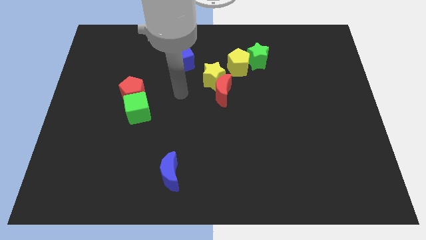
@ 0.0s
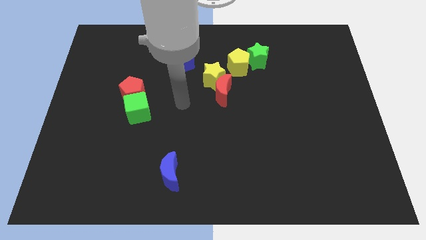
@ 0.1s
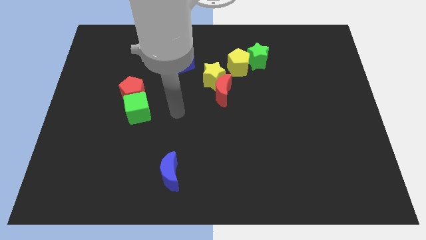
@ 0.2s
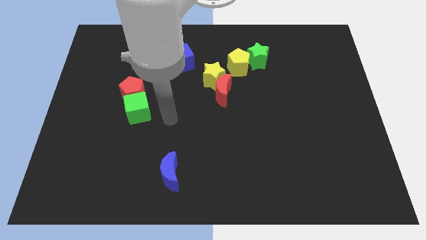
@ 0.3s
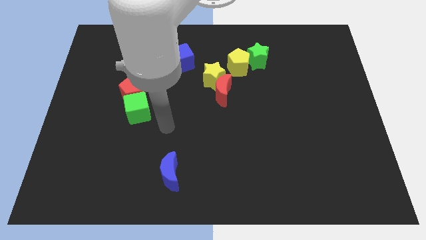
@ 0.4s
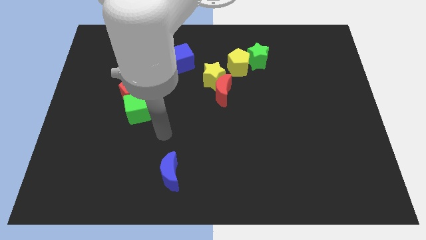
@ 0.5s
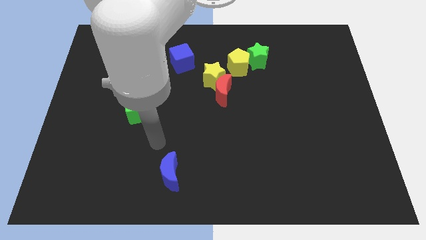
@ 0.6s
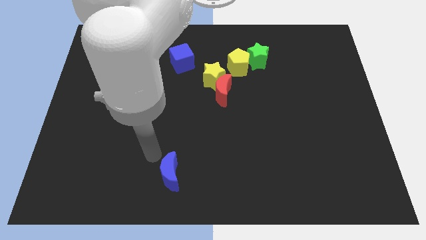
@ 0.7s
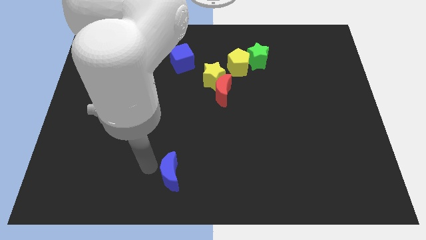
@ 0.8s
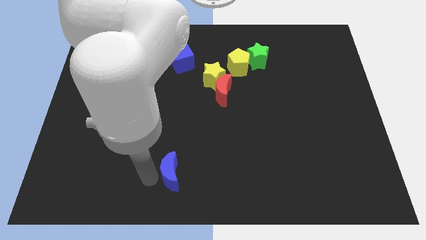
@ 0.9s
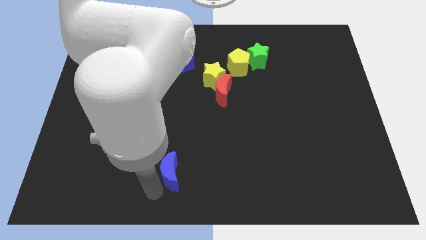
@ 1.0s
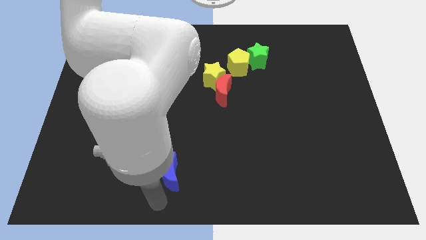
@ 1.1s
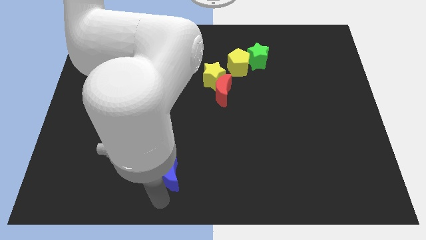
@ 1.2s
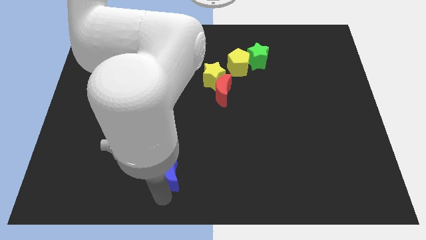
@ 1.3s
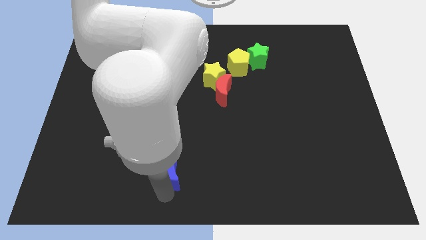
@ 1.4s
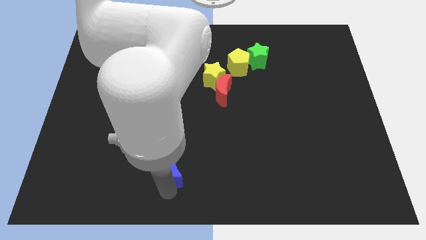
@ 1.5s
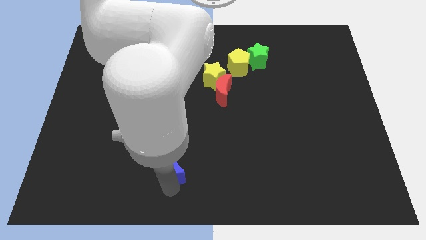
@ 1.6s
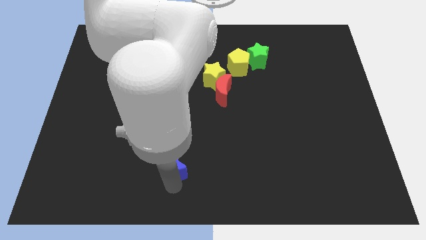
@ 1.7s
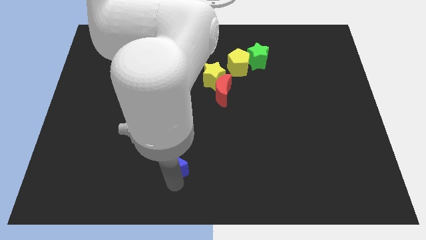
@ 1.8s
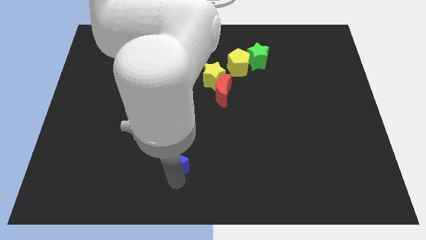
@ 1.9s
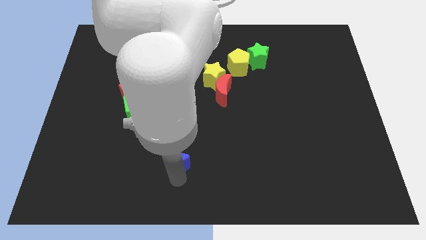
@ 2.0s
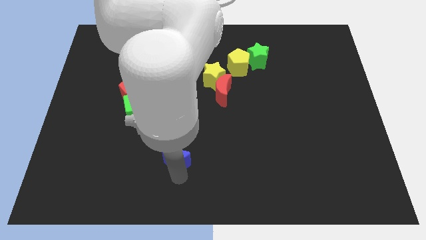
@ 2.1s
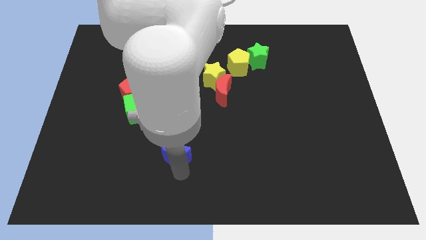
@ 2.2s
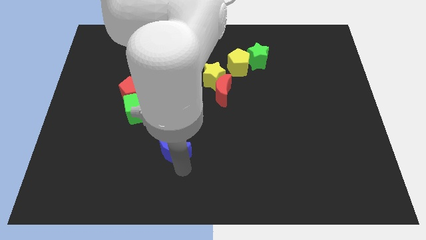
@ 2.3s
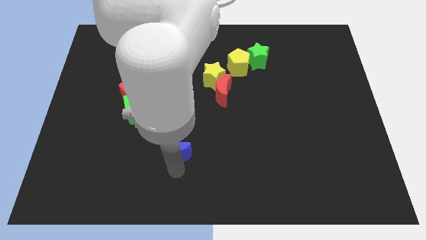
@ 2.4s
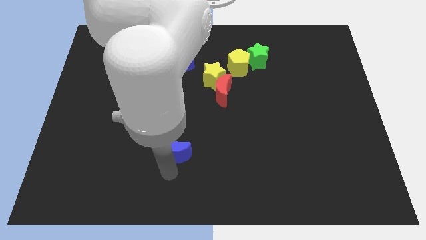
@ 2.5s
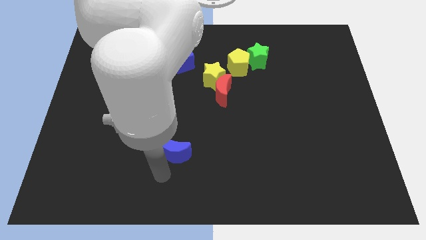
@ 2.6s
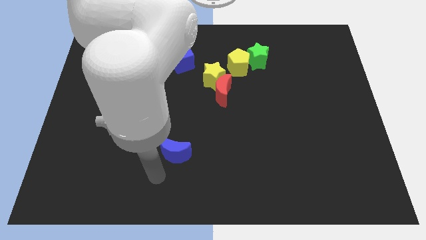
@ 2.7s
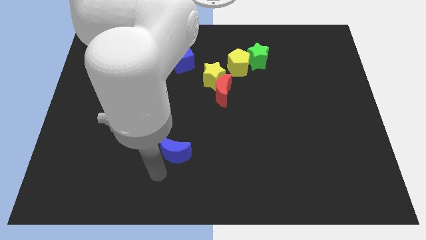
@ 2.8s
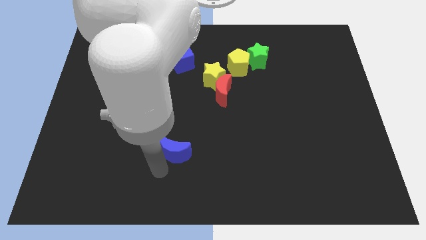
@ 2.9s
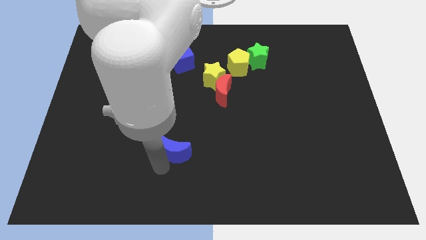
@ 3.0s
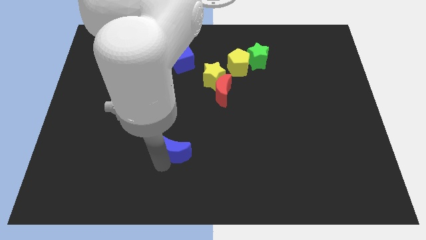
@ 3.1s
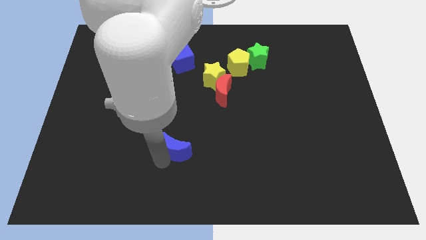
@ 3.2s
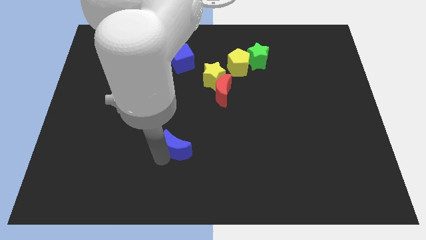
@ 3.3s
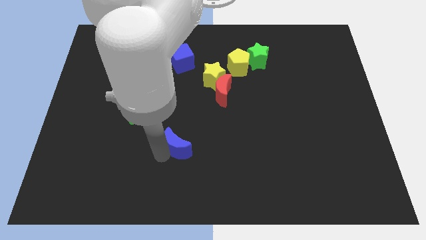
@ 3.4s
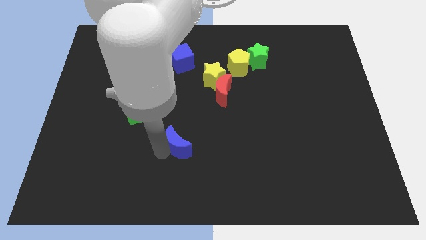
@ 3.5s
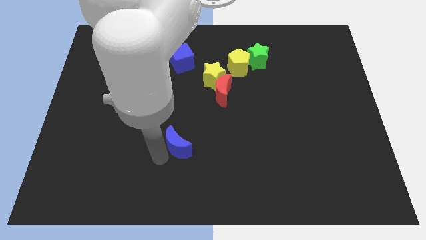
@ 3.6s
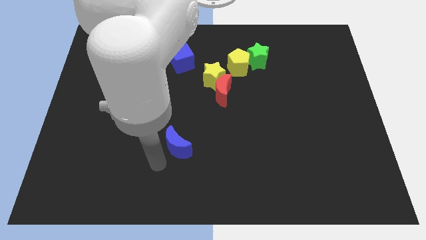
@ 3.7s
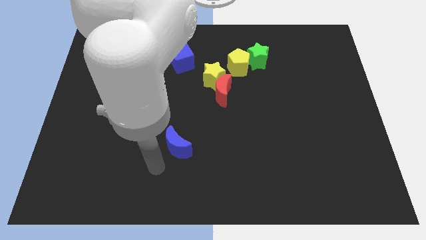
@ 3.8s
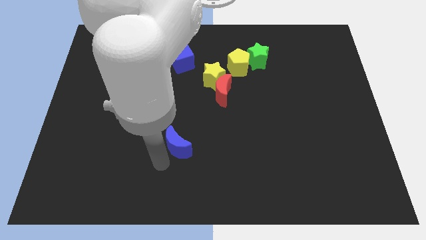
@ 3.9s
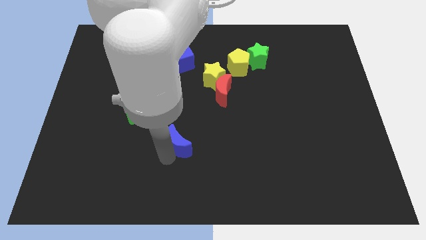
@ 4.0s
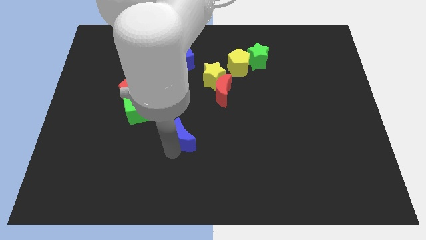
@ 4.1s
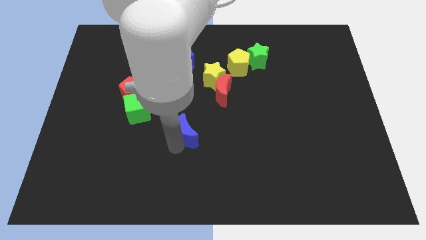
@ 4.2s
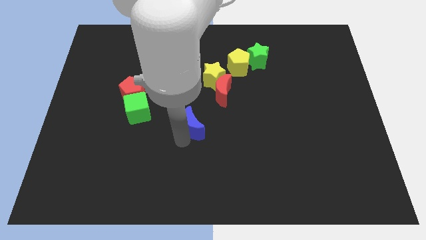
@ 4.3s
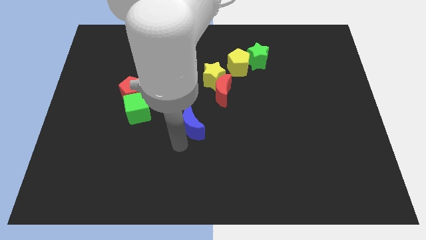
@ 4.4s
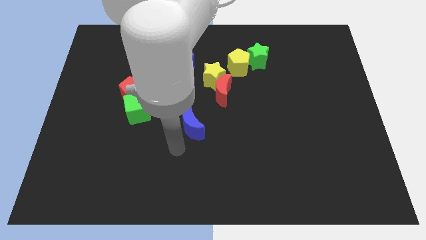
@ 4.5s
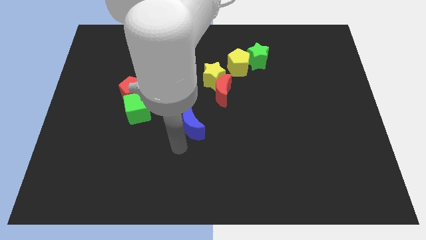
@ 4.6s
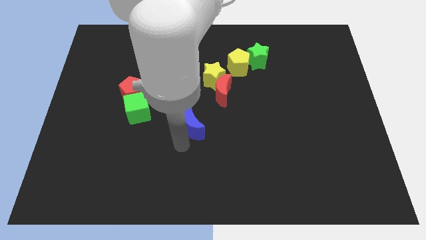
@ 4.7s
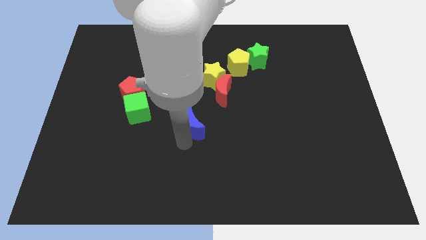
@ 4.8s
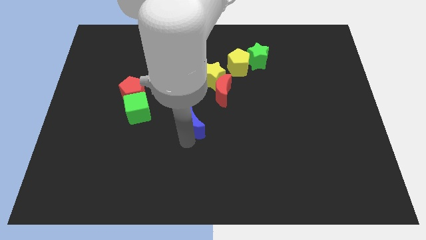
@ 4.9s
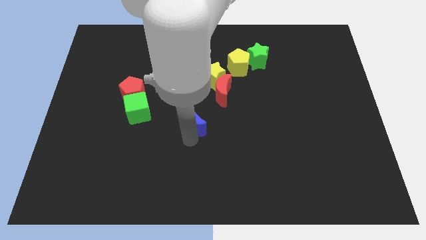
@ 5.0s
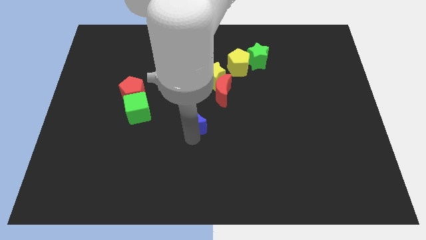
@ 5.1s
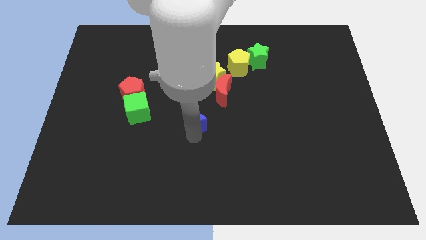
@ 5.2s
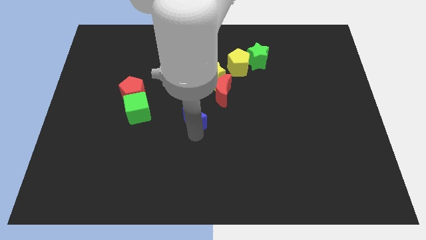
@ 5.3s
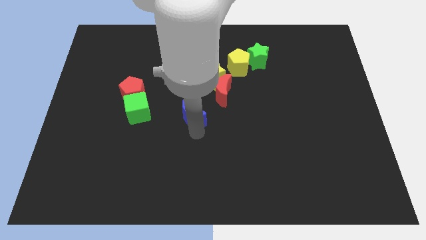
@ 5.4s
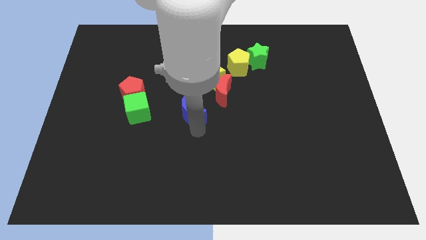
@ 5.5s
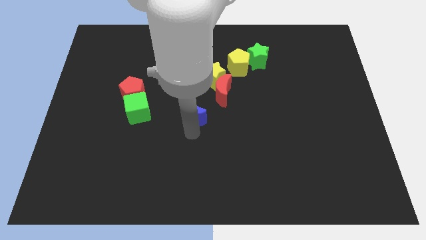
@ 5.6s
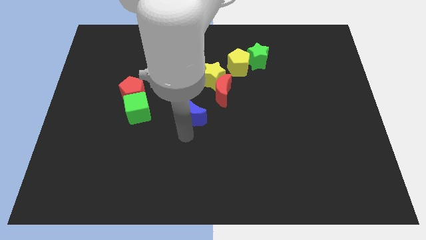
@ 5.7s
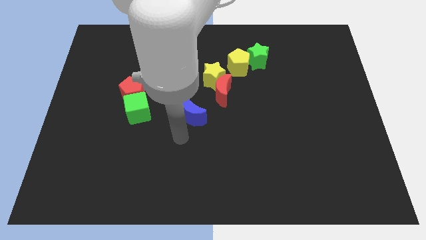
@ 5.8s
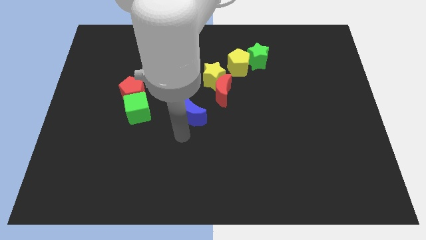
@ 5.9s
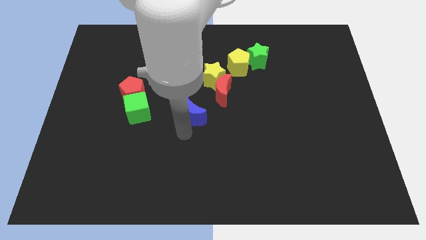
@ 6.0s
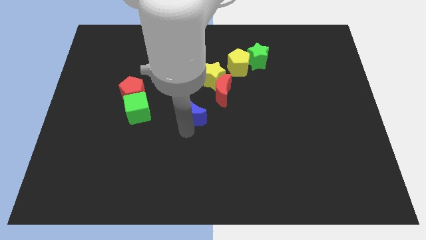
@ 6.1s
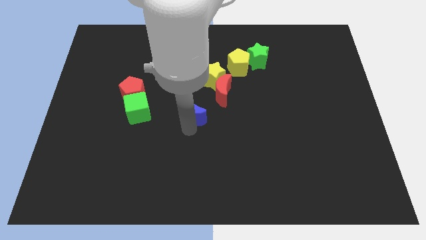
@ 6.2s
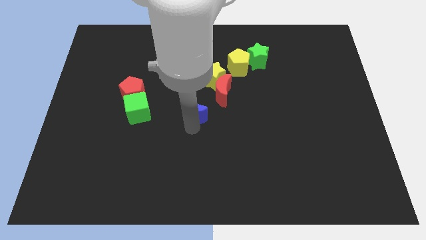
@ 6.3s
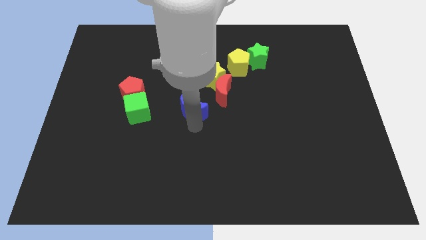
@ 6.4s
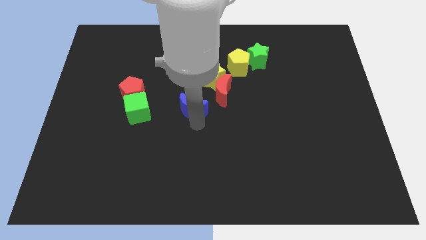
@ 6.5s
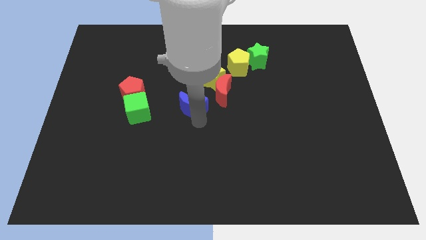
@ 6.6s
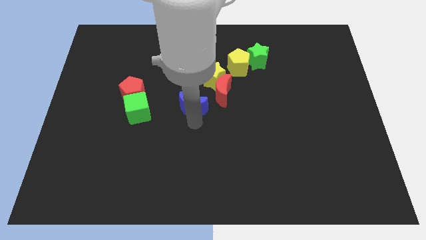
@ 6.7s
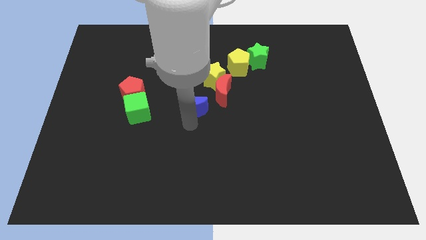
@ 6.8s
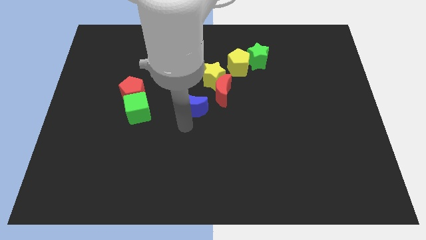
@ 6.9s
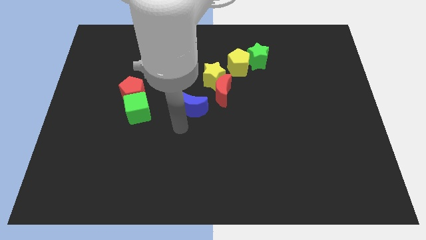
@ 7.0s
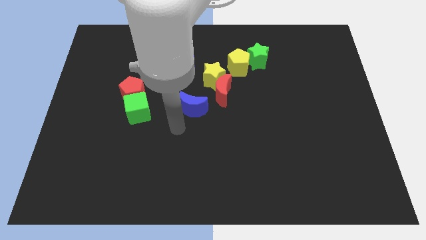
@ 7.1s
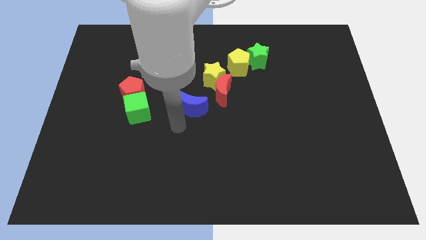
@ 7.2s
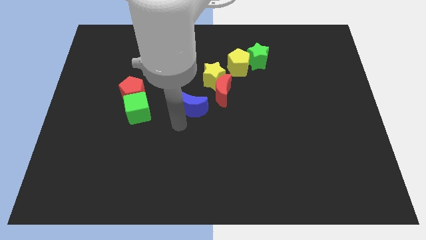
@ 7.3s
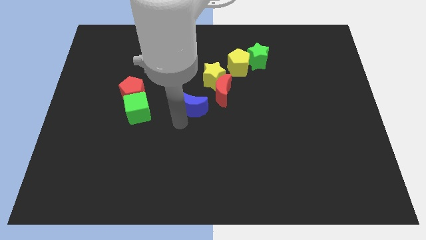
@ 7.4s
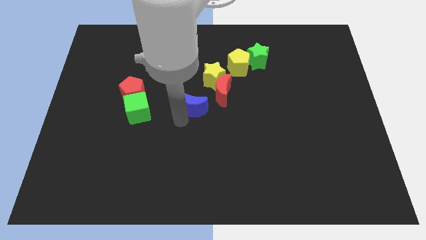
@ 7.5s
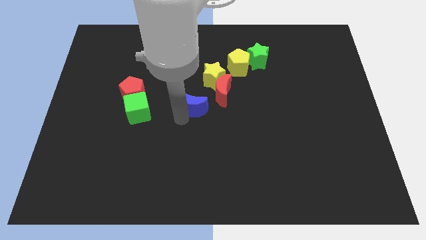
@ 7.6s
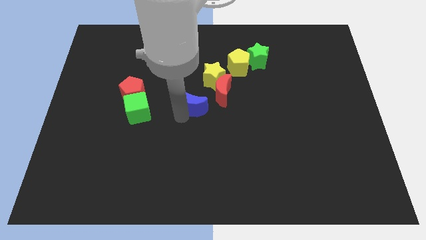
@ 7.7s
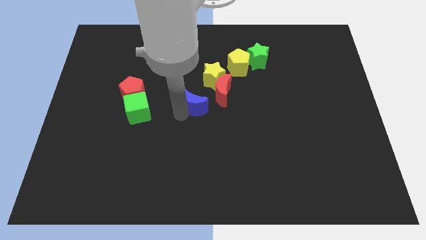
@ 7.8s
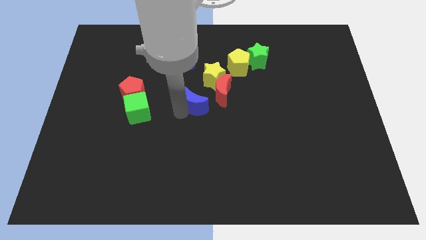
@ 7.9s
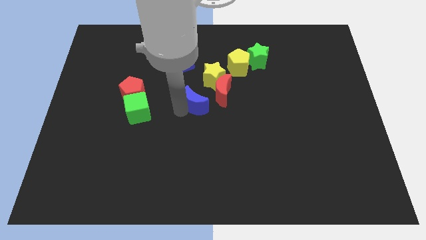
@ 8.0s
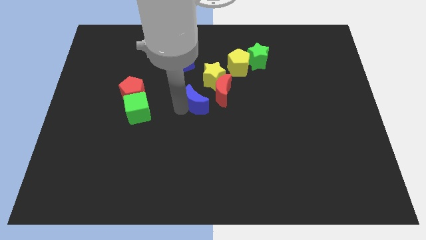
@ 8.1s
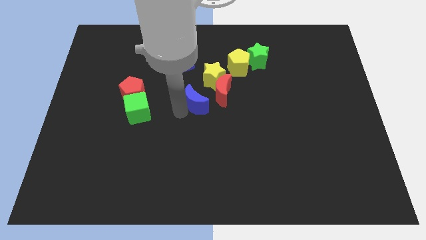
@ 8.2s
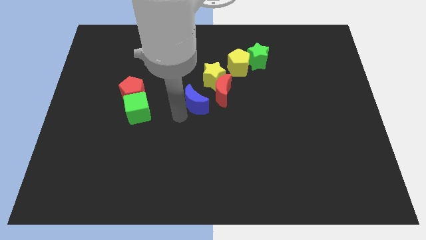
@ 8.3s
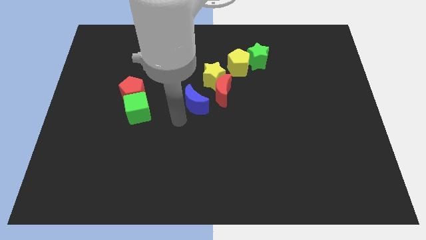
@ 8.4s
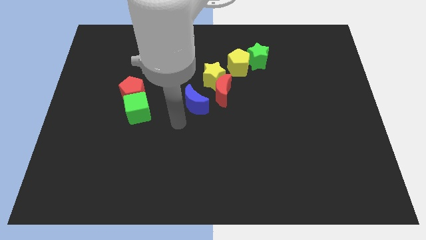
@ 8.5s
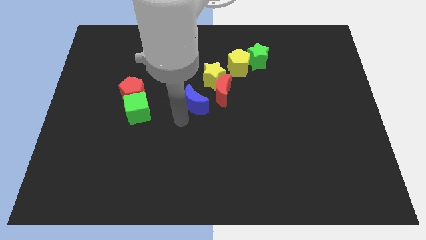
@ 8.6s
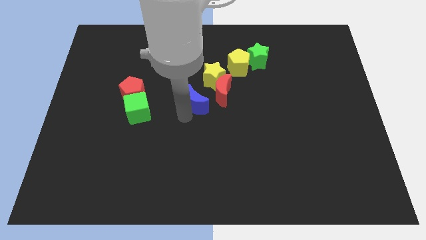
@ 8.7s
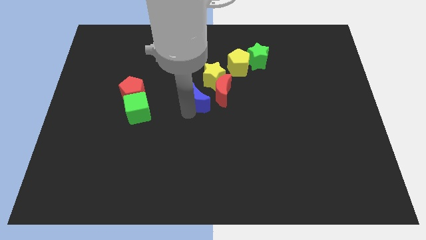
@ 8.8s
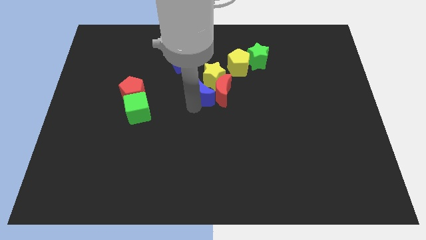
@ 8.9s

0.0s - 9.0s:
move the blue moon next to the yellow star
